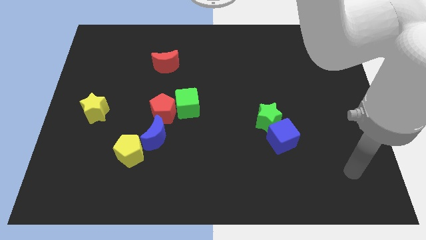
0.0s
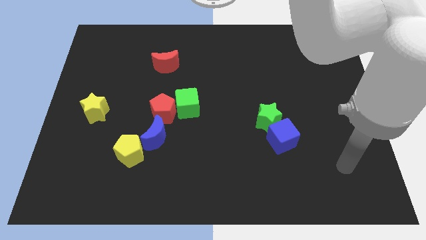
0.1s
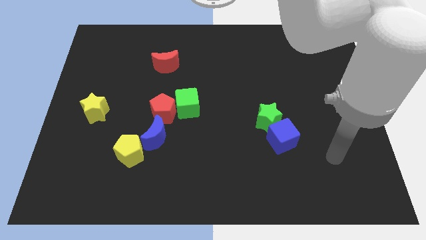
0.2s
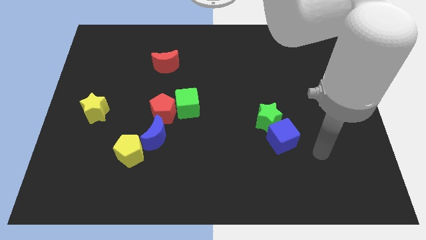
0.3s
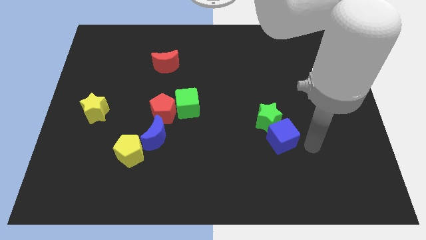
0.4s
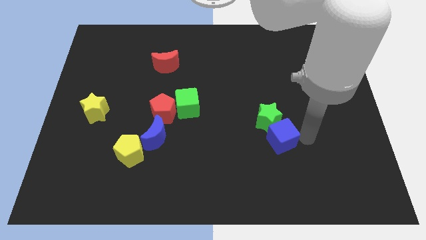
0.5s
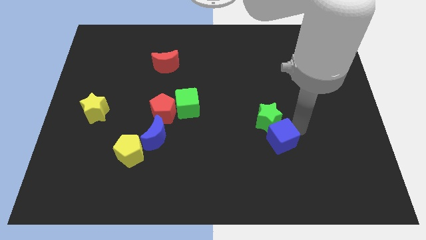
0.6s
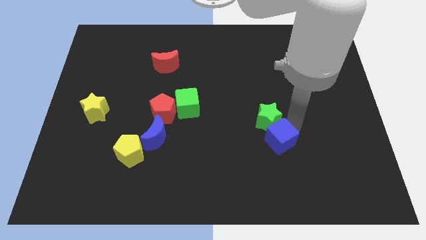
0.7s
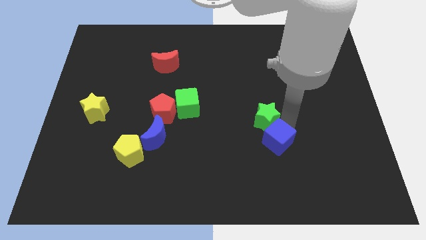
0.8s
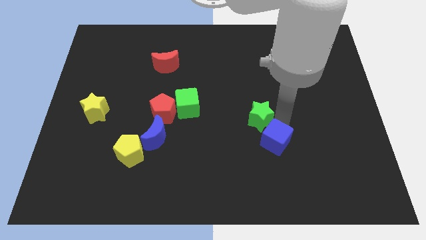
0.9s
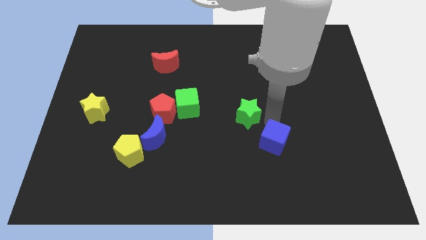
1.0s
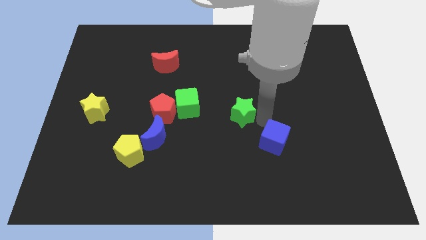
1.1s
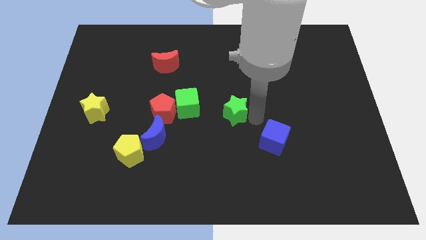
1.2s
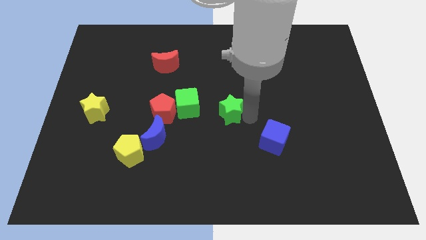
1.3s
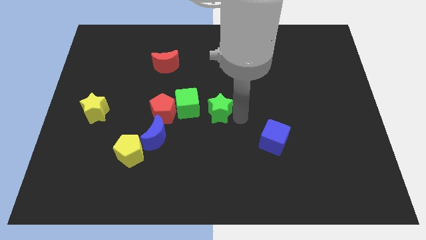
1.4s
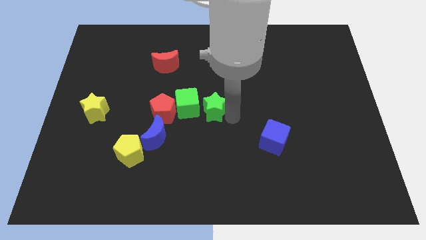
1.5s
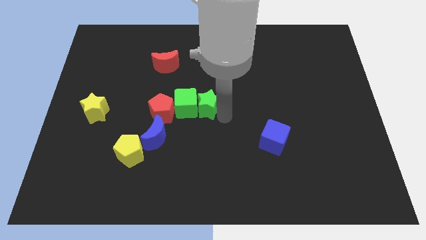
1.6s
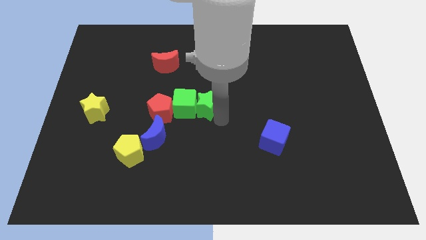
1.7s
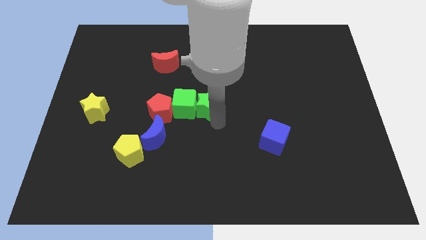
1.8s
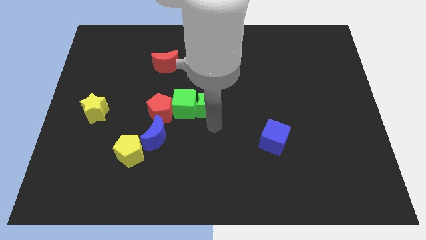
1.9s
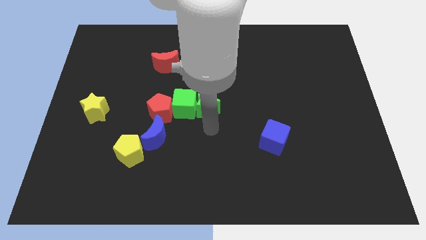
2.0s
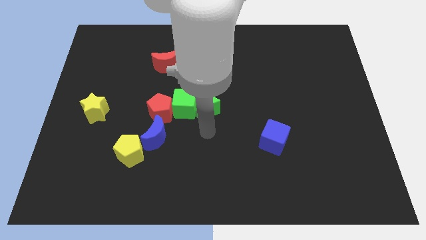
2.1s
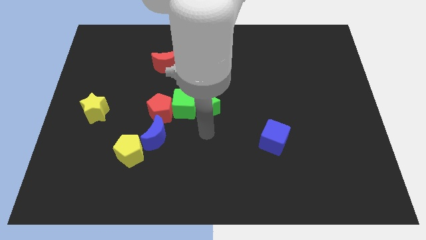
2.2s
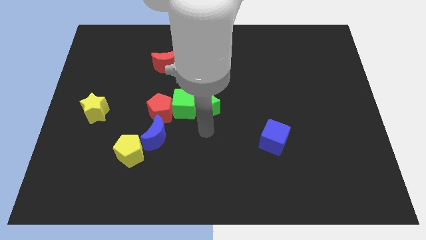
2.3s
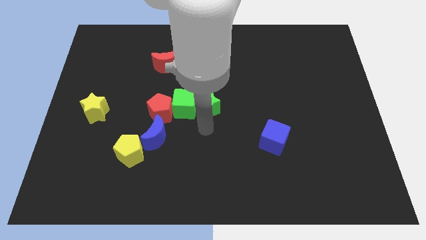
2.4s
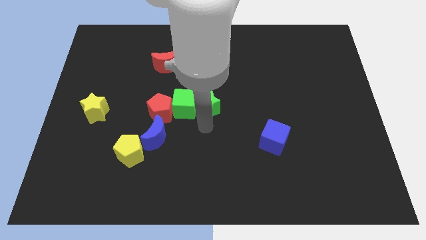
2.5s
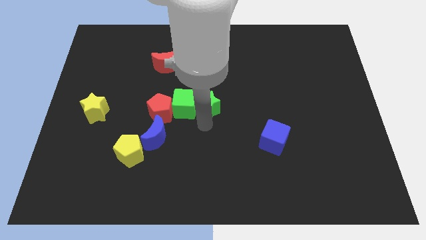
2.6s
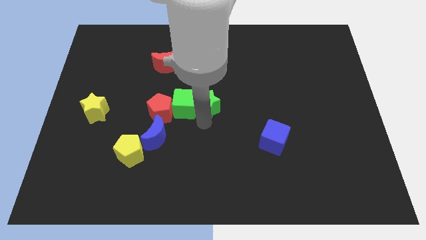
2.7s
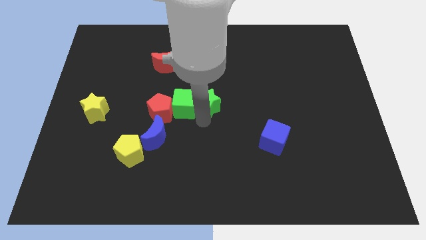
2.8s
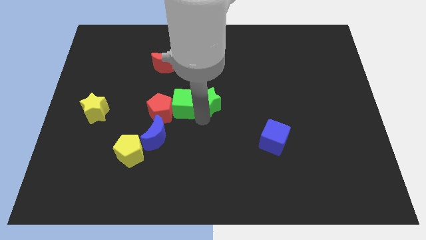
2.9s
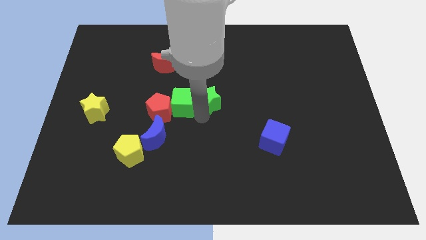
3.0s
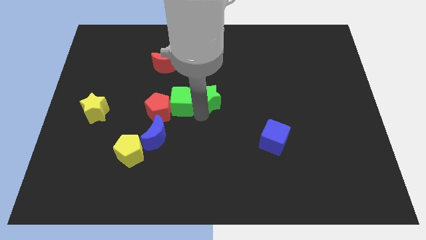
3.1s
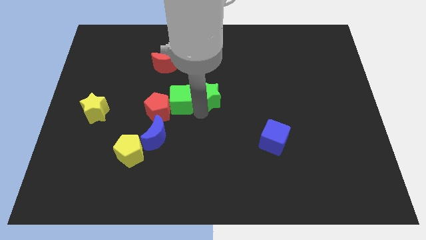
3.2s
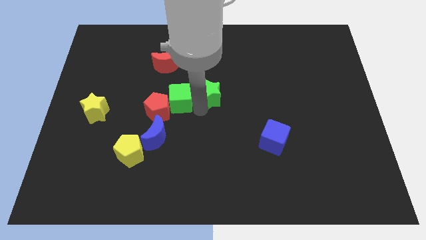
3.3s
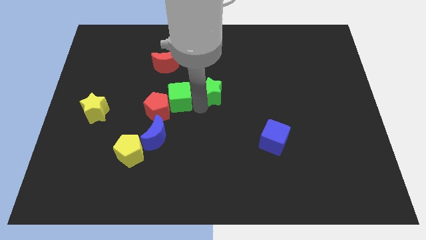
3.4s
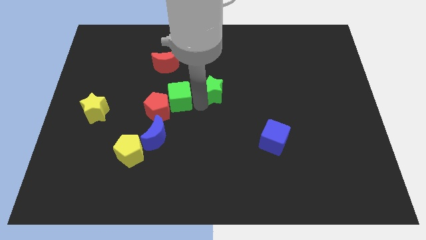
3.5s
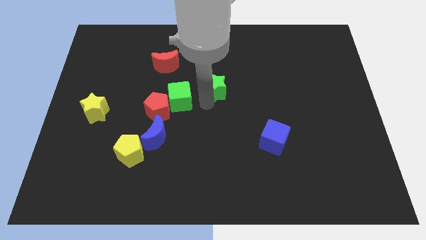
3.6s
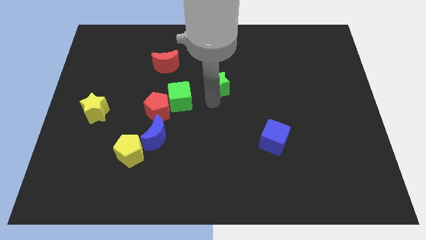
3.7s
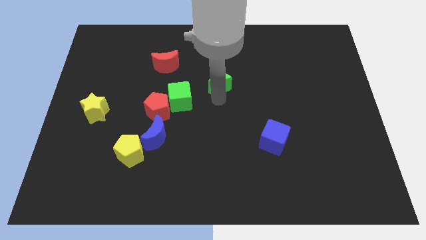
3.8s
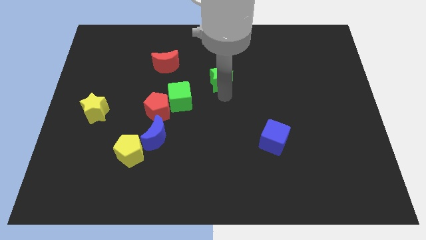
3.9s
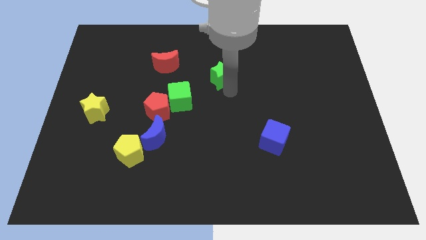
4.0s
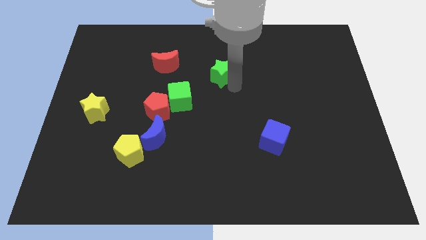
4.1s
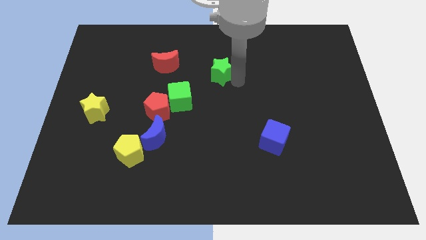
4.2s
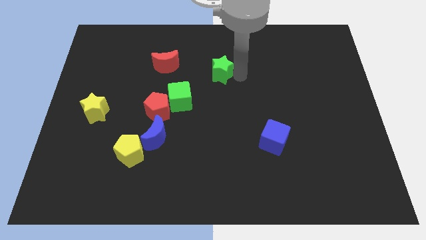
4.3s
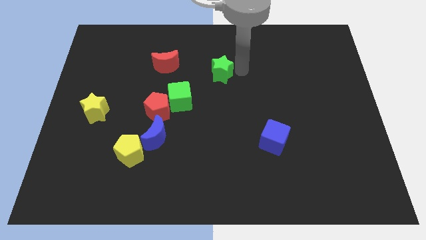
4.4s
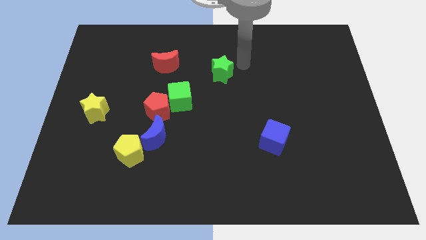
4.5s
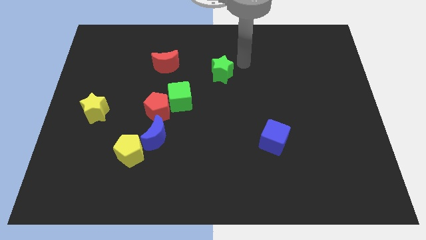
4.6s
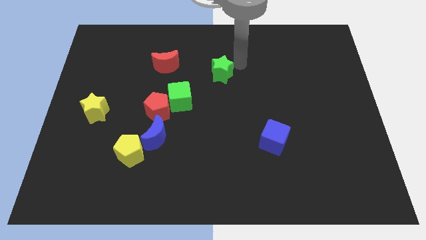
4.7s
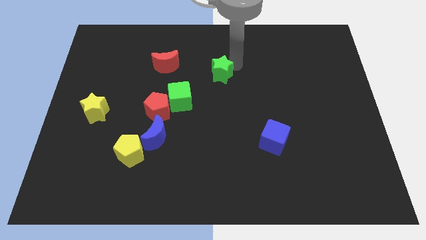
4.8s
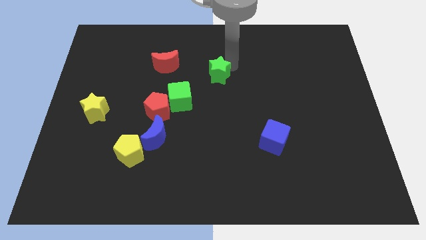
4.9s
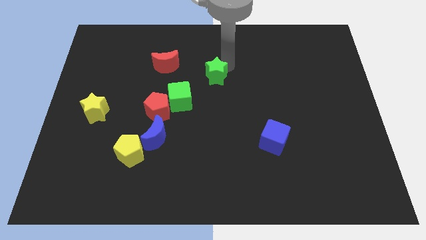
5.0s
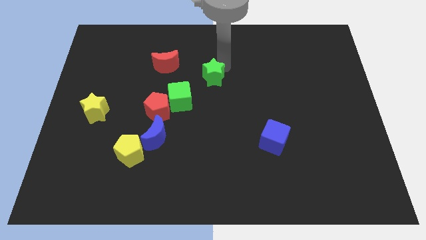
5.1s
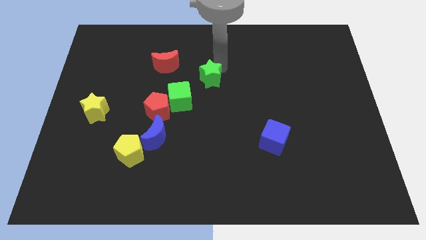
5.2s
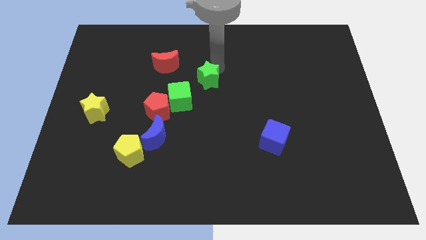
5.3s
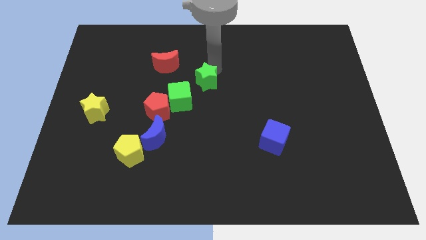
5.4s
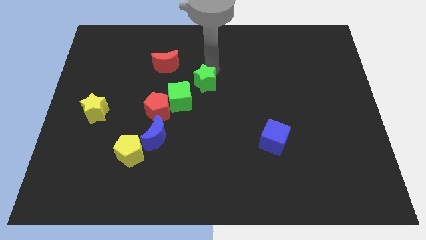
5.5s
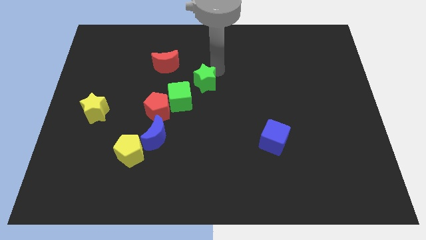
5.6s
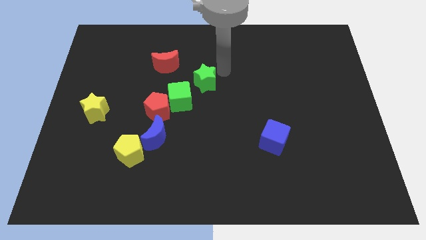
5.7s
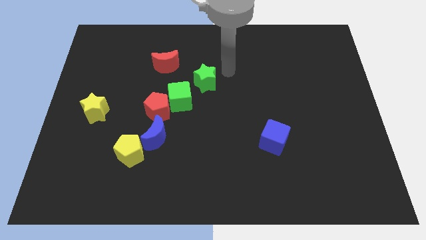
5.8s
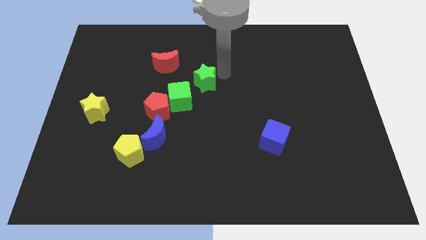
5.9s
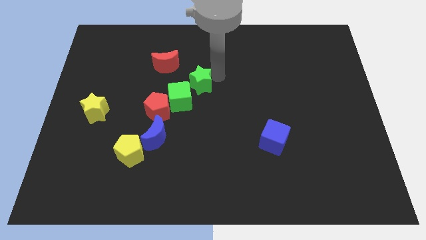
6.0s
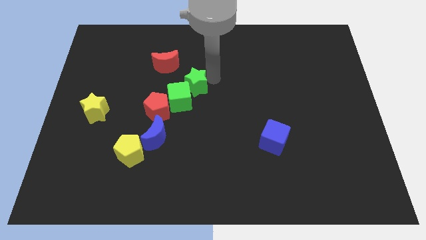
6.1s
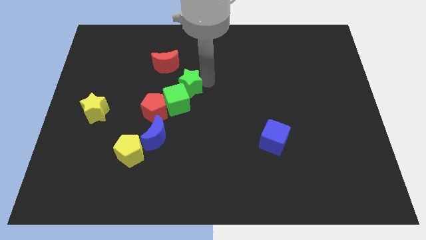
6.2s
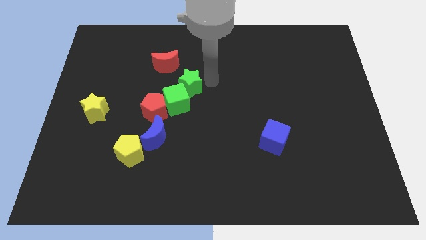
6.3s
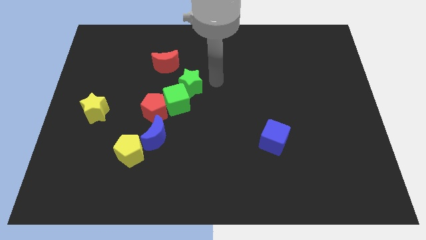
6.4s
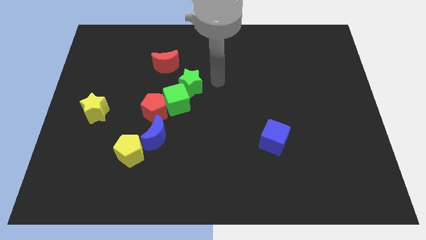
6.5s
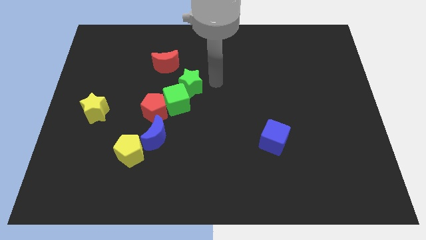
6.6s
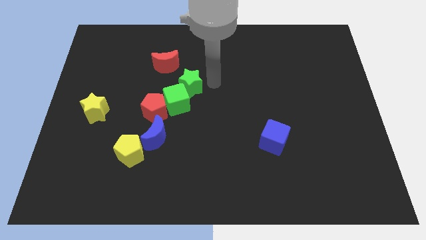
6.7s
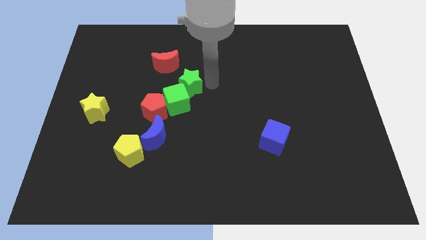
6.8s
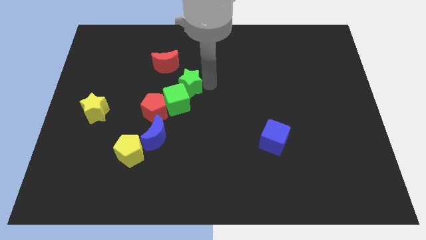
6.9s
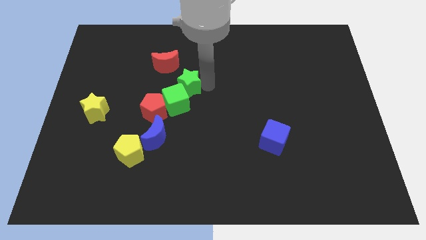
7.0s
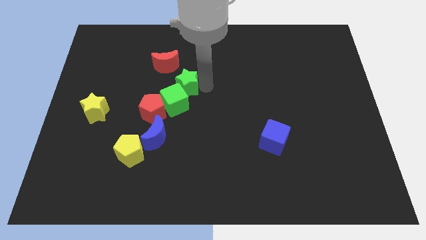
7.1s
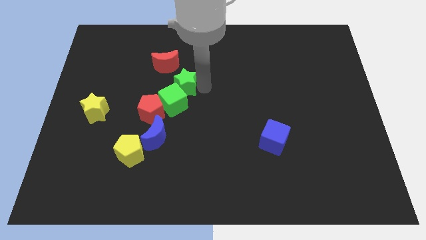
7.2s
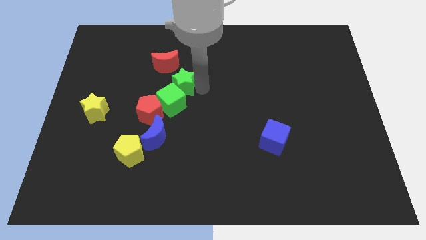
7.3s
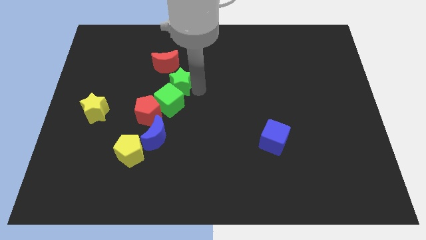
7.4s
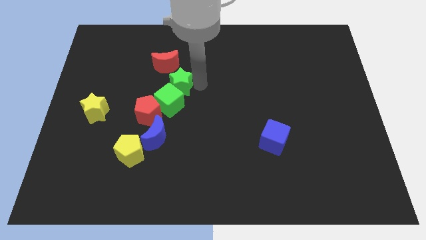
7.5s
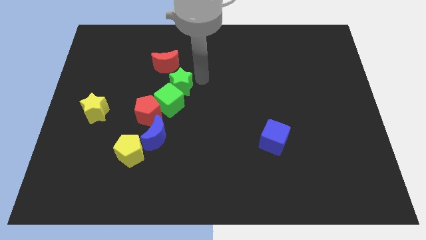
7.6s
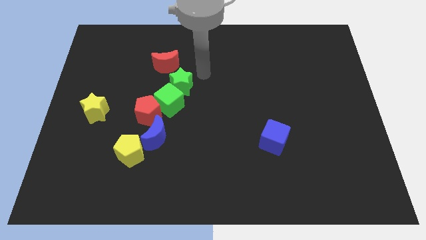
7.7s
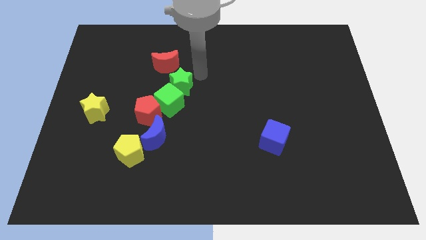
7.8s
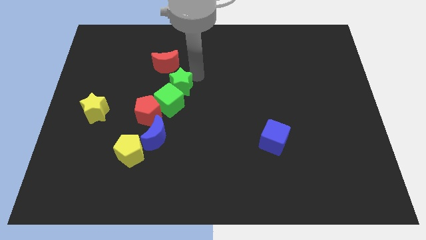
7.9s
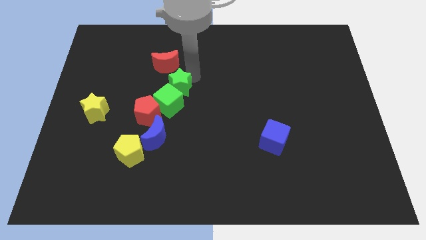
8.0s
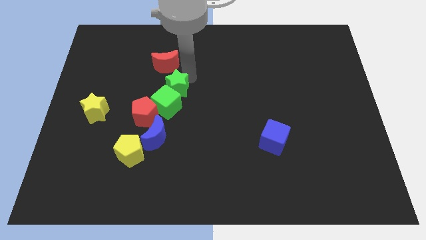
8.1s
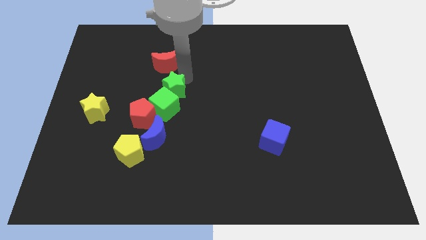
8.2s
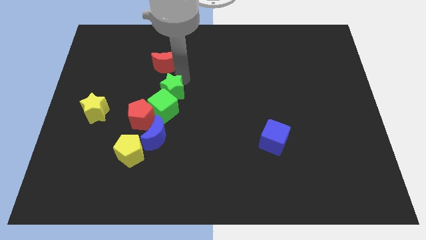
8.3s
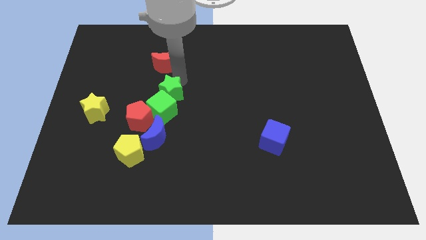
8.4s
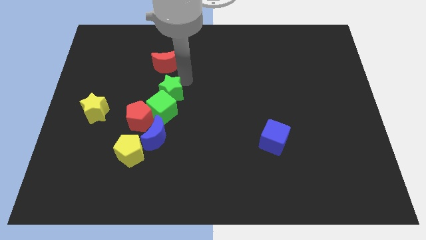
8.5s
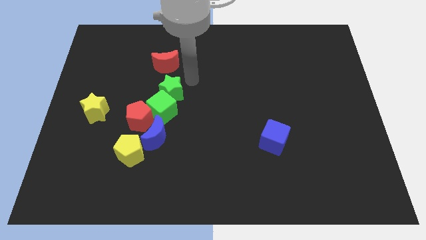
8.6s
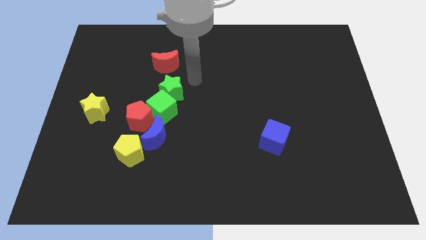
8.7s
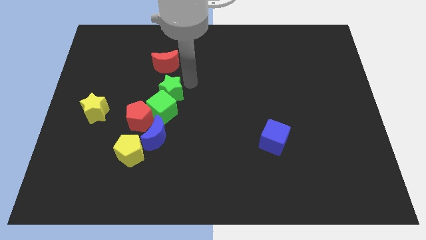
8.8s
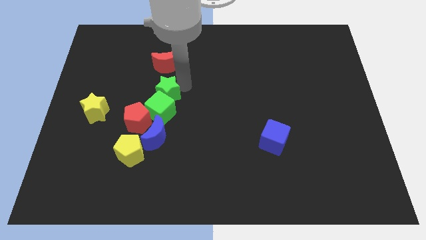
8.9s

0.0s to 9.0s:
push the green star left
